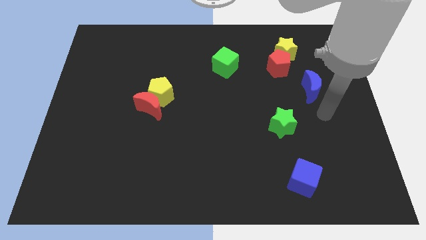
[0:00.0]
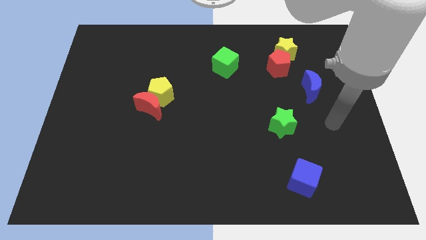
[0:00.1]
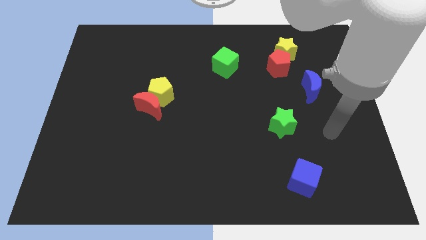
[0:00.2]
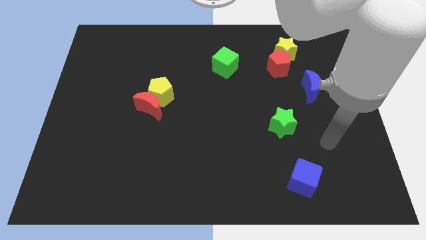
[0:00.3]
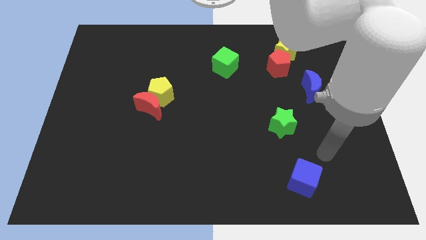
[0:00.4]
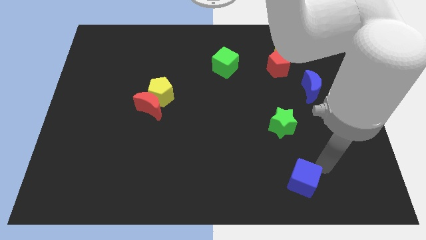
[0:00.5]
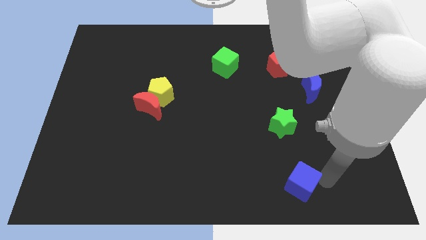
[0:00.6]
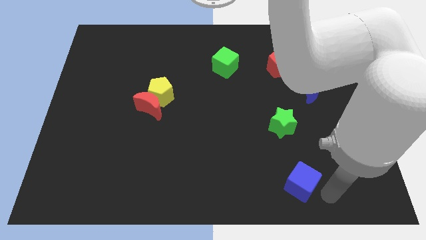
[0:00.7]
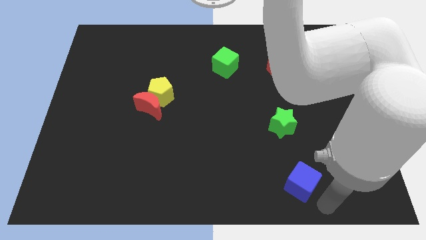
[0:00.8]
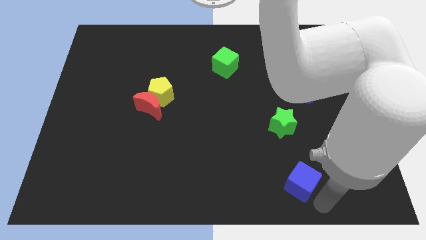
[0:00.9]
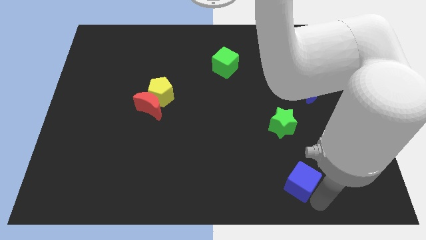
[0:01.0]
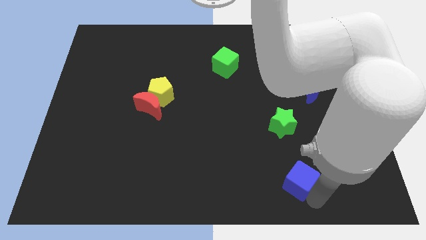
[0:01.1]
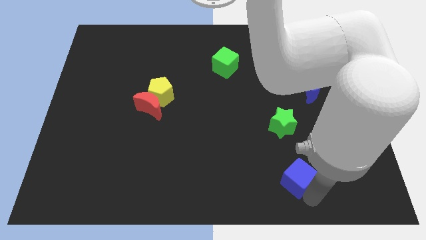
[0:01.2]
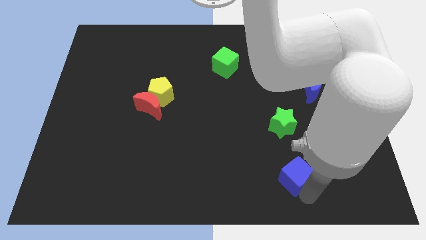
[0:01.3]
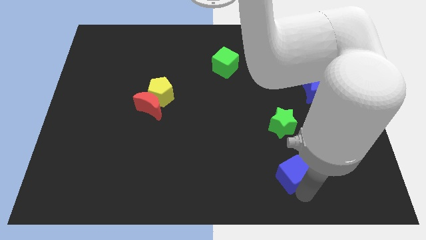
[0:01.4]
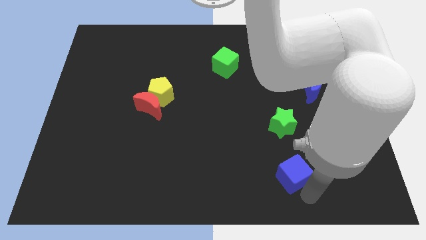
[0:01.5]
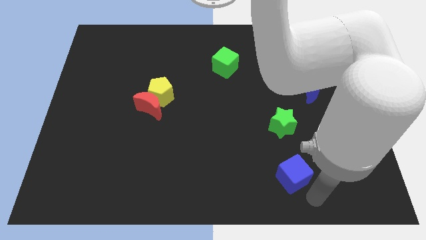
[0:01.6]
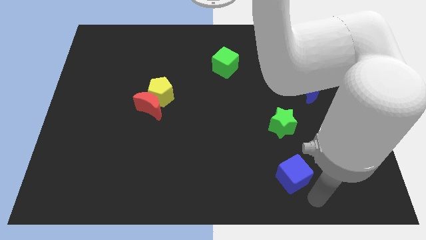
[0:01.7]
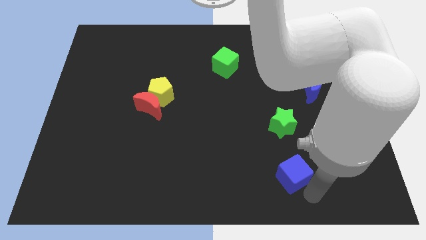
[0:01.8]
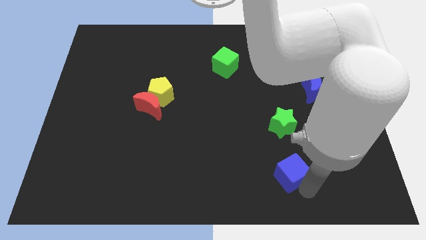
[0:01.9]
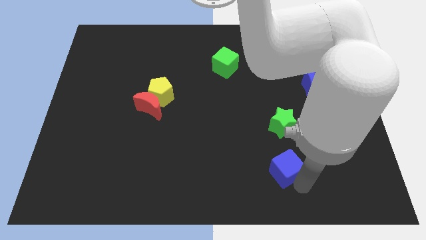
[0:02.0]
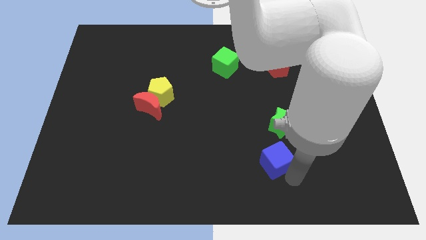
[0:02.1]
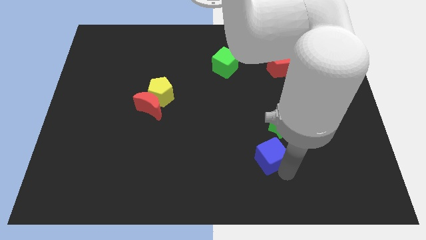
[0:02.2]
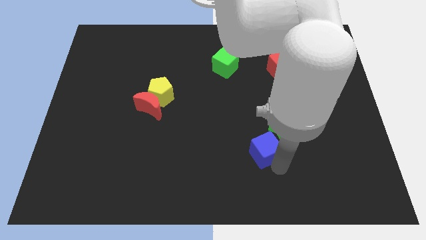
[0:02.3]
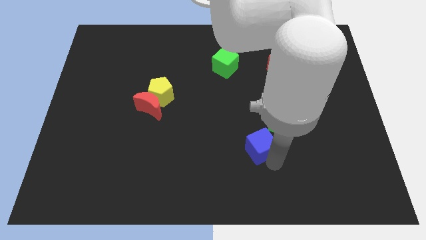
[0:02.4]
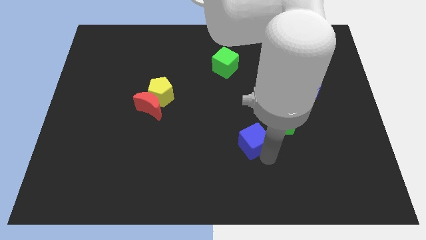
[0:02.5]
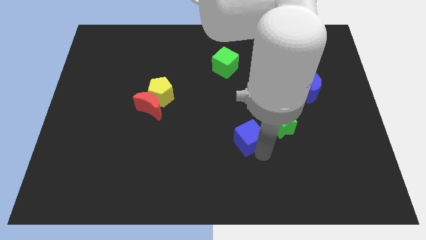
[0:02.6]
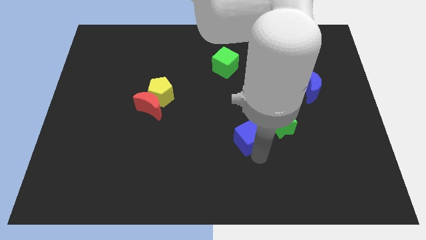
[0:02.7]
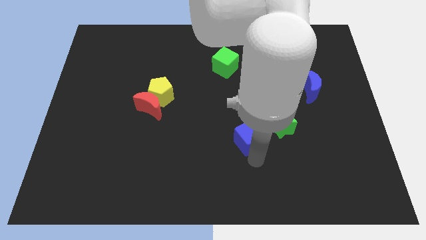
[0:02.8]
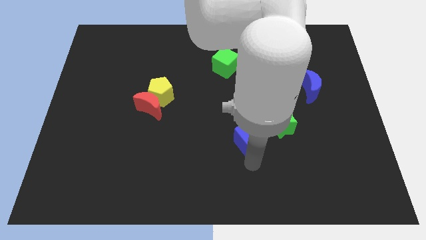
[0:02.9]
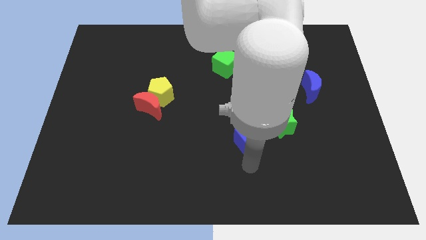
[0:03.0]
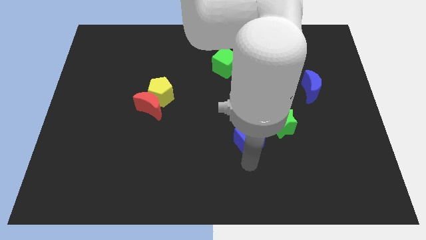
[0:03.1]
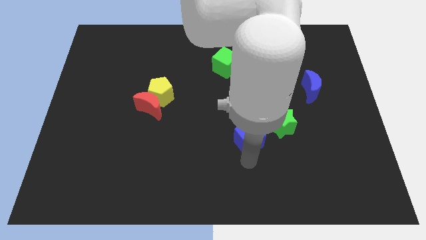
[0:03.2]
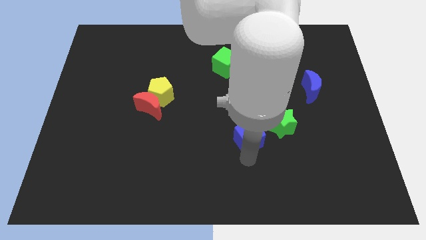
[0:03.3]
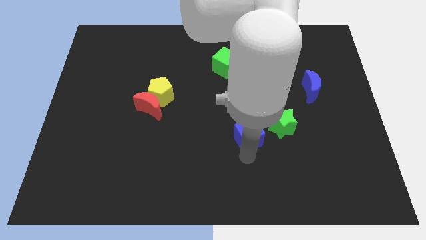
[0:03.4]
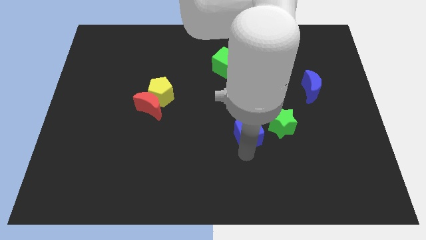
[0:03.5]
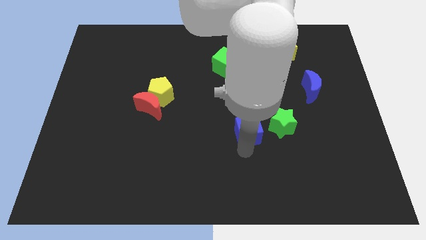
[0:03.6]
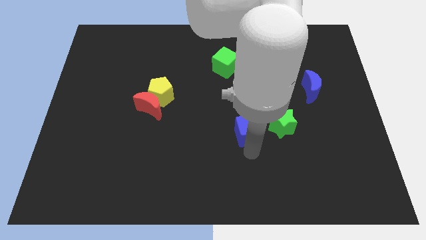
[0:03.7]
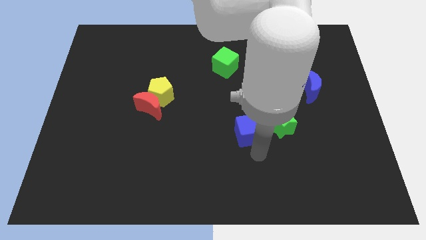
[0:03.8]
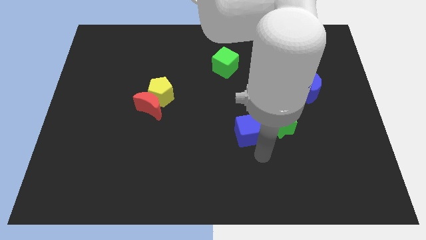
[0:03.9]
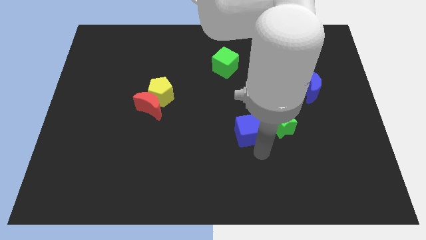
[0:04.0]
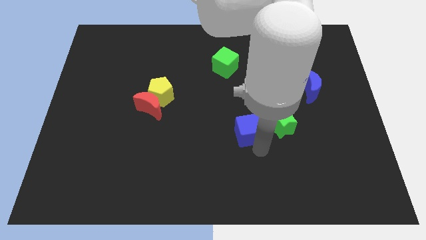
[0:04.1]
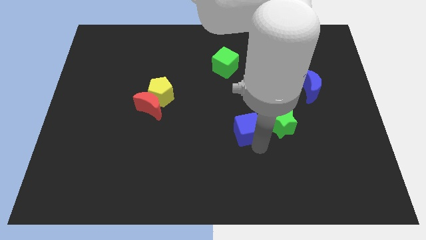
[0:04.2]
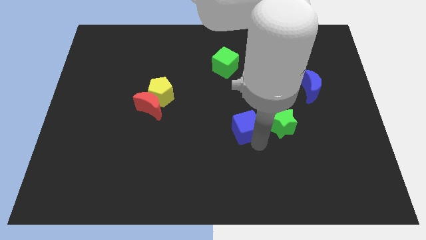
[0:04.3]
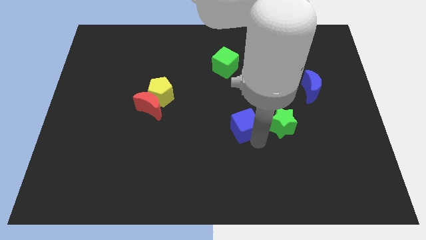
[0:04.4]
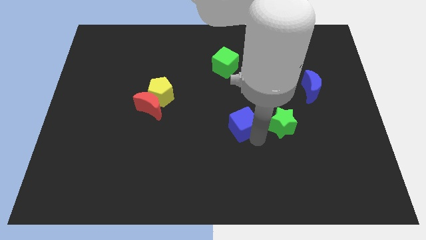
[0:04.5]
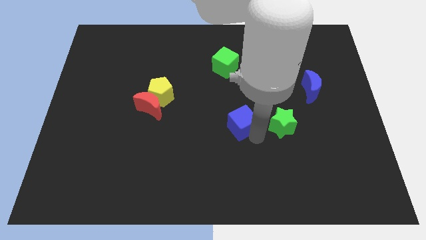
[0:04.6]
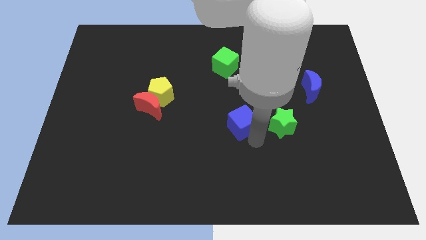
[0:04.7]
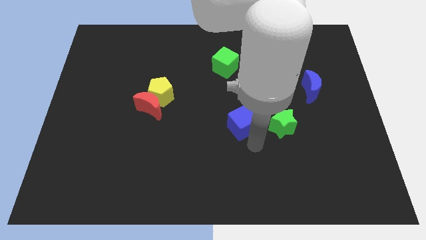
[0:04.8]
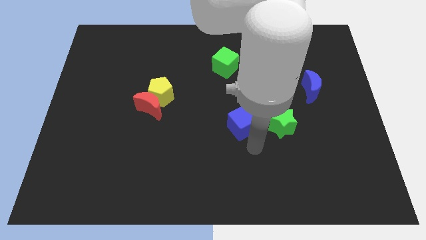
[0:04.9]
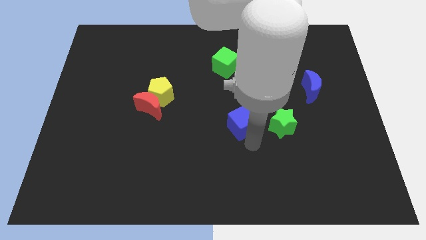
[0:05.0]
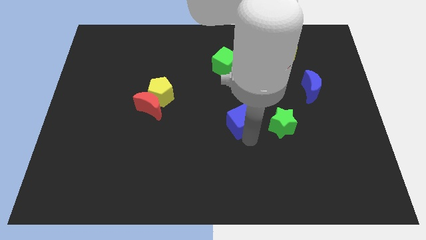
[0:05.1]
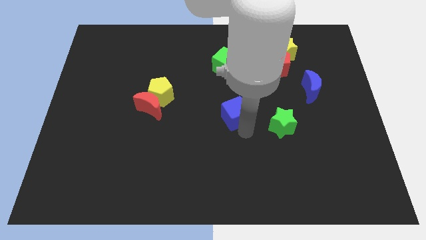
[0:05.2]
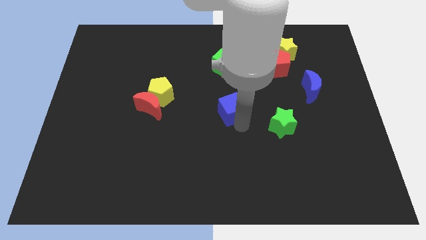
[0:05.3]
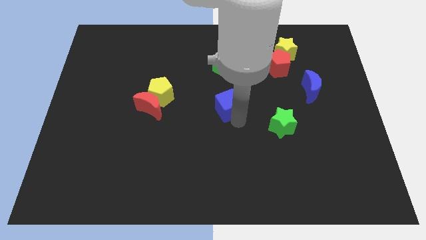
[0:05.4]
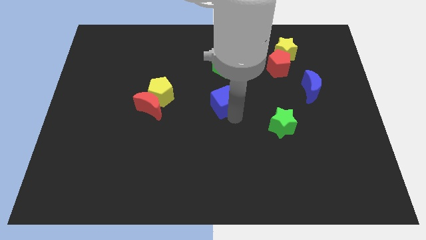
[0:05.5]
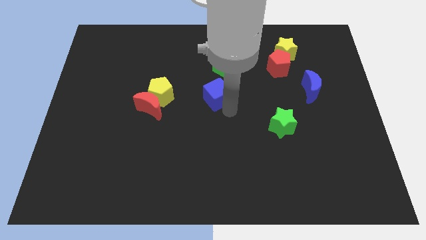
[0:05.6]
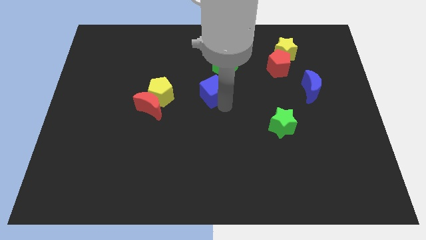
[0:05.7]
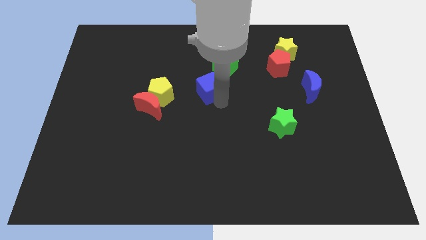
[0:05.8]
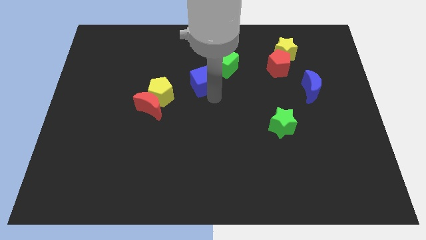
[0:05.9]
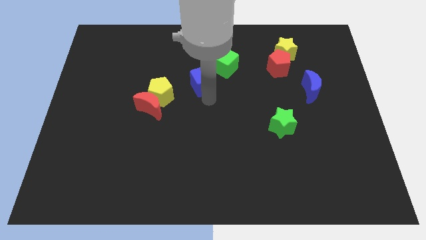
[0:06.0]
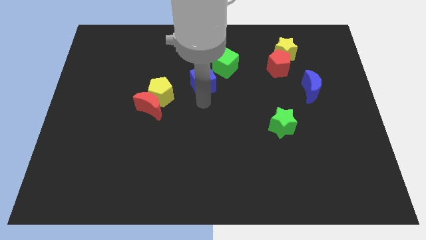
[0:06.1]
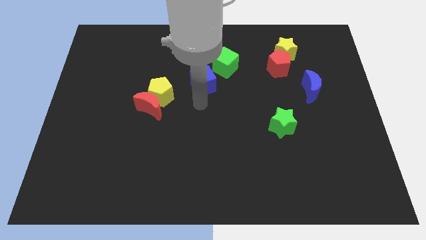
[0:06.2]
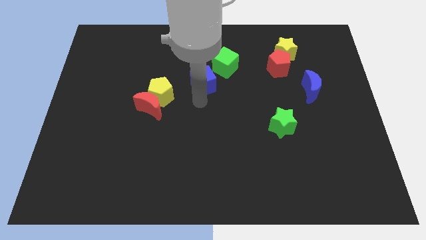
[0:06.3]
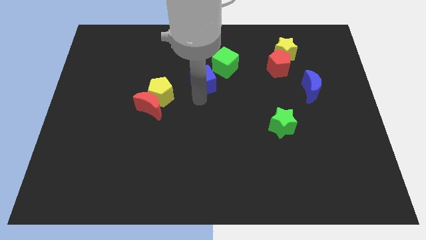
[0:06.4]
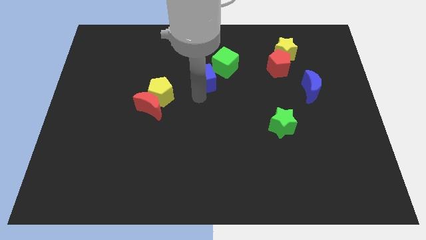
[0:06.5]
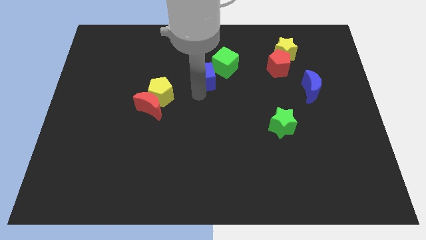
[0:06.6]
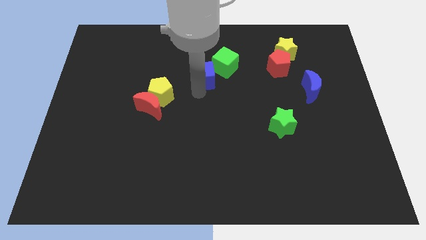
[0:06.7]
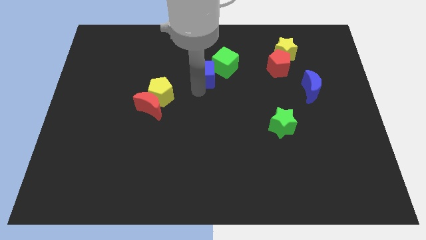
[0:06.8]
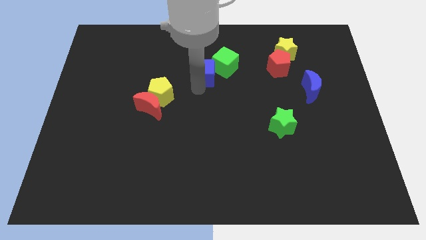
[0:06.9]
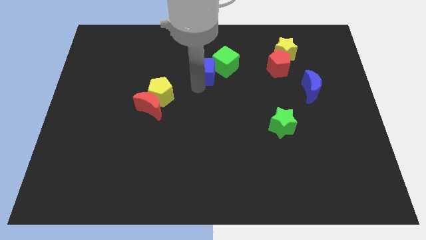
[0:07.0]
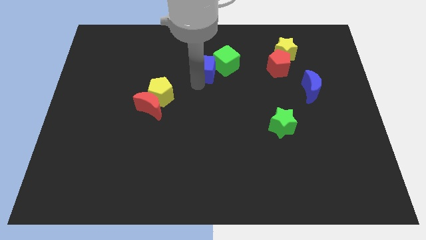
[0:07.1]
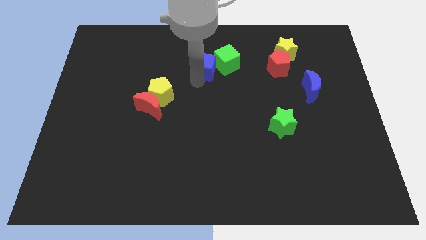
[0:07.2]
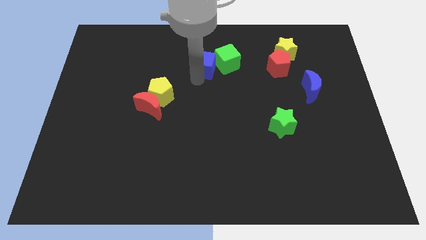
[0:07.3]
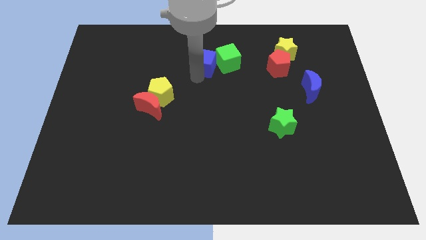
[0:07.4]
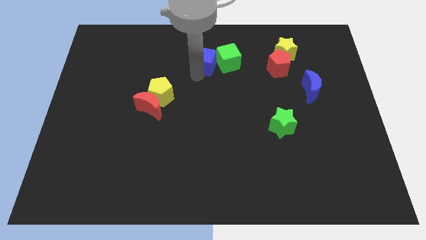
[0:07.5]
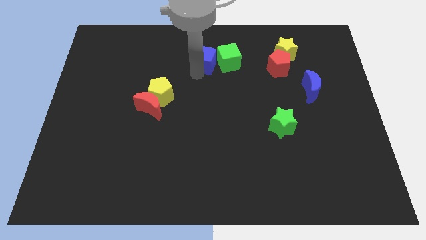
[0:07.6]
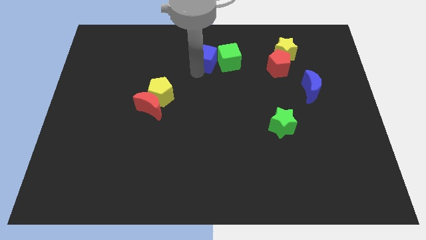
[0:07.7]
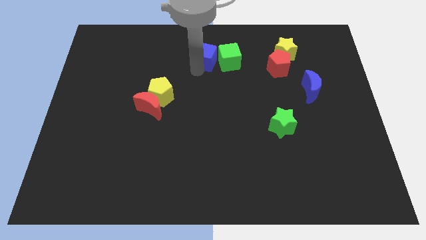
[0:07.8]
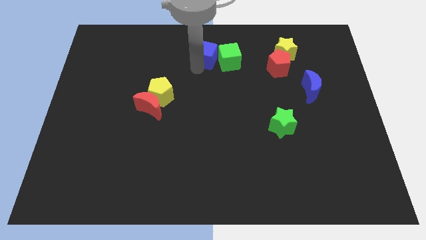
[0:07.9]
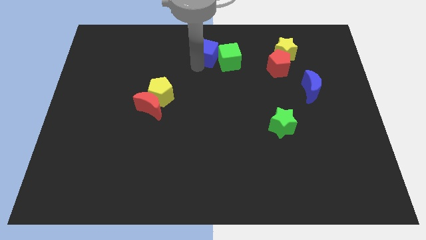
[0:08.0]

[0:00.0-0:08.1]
move the blue cube to the towards your base
